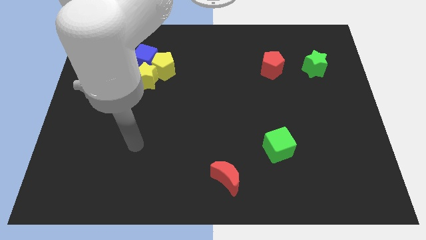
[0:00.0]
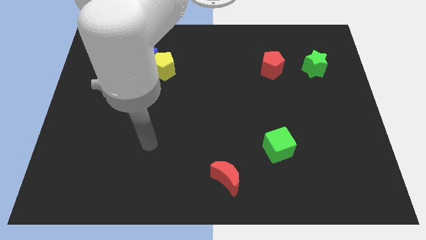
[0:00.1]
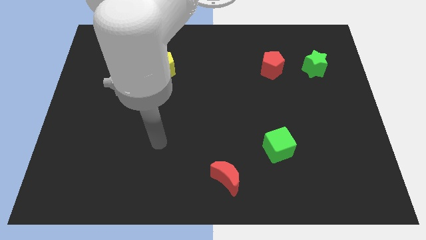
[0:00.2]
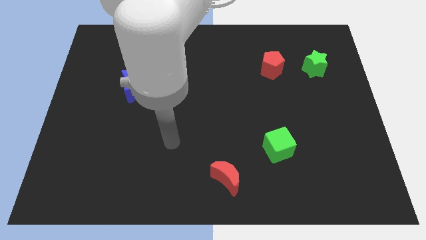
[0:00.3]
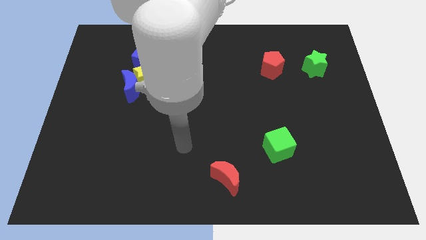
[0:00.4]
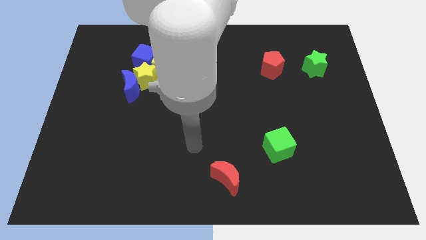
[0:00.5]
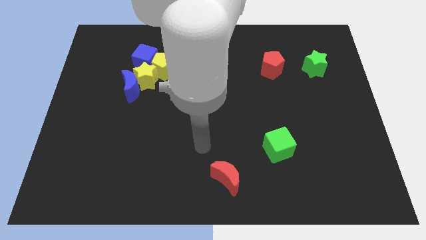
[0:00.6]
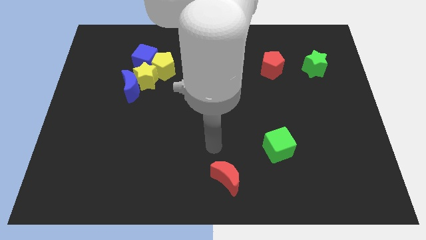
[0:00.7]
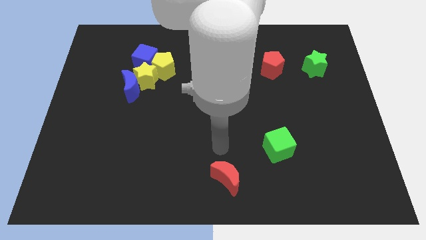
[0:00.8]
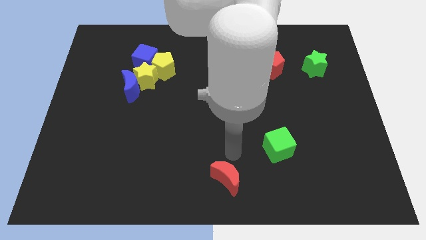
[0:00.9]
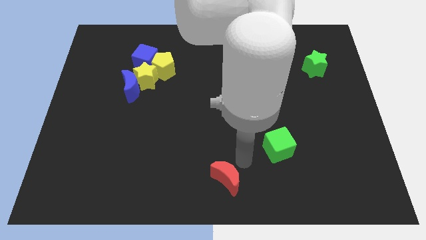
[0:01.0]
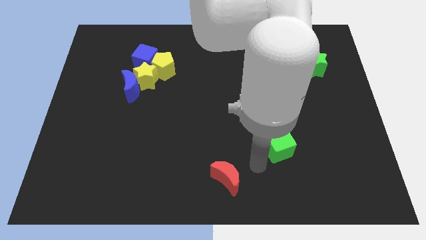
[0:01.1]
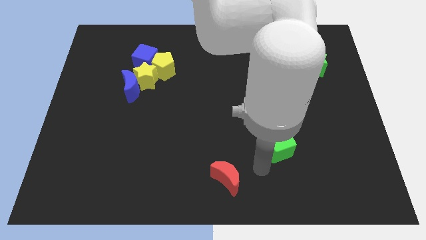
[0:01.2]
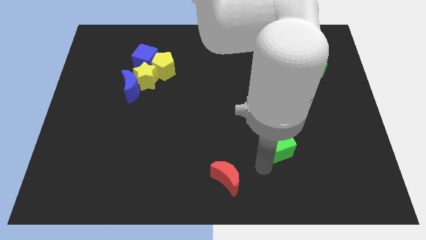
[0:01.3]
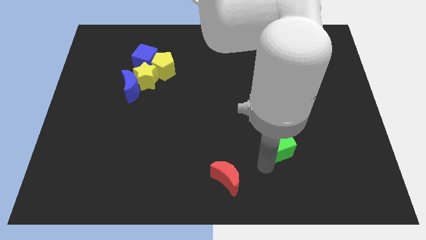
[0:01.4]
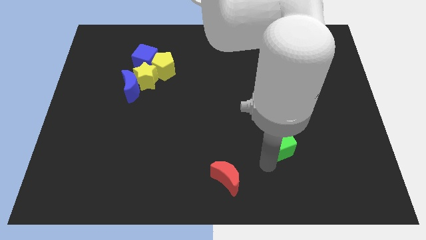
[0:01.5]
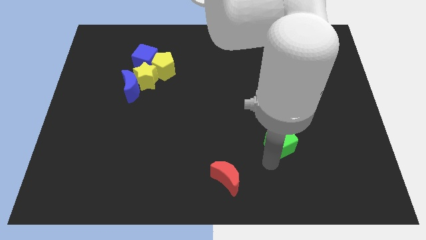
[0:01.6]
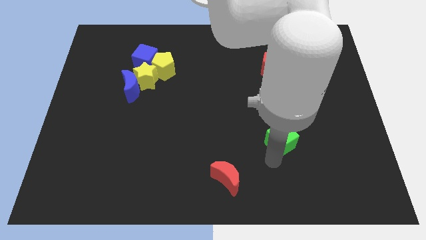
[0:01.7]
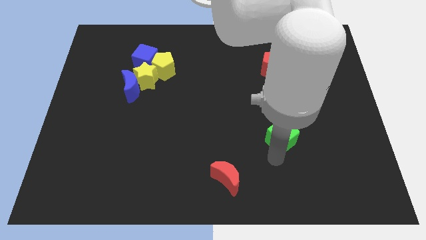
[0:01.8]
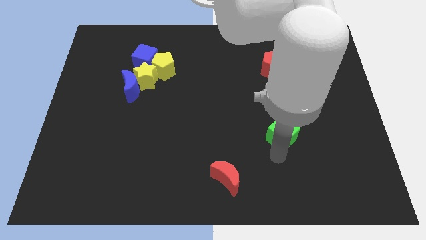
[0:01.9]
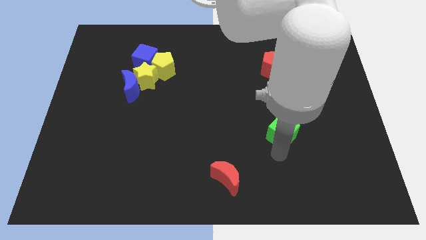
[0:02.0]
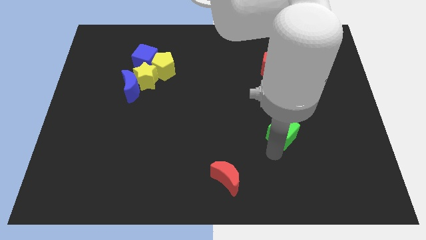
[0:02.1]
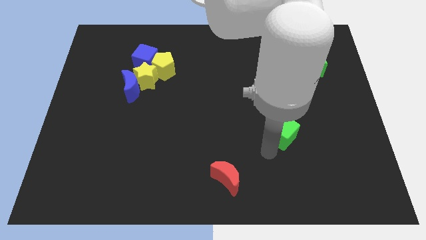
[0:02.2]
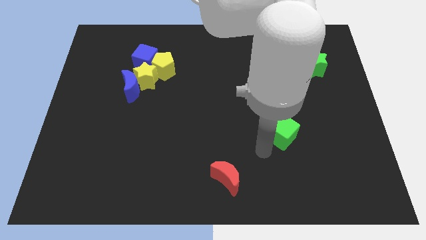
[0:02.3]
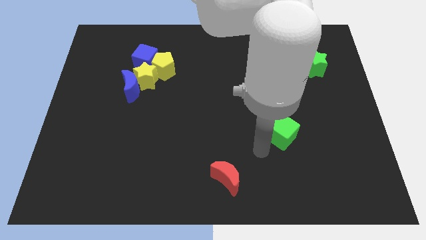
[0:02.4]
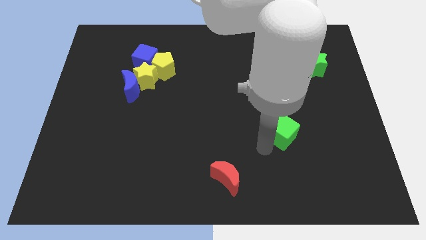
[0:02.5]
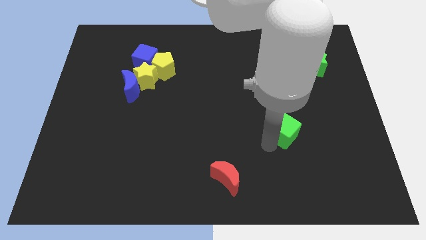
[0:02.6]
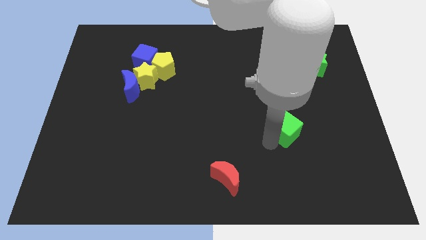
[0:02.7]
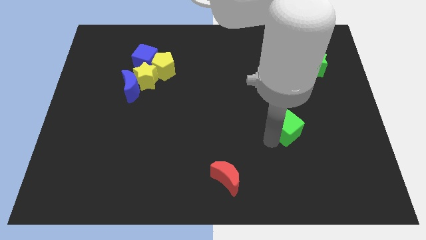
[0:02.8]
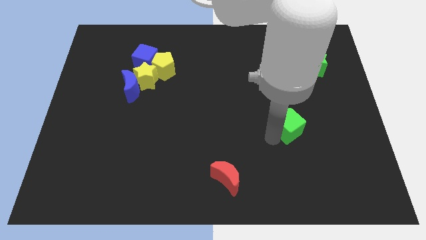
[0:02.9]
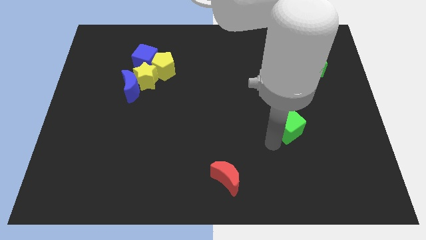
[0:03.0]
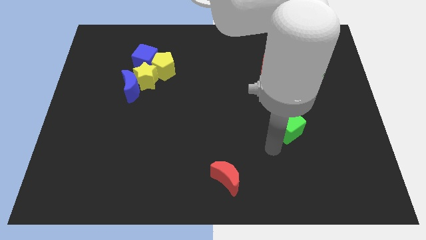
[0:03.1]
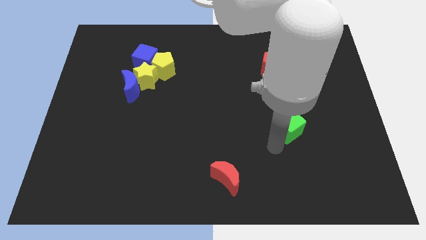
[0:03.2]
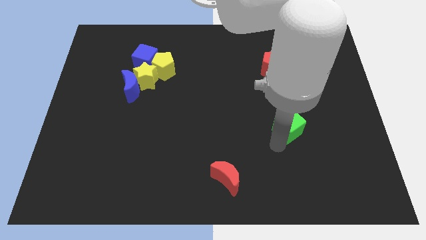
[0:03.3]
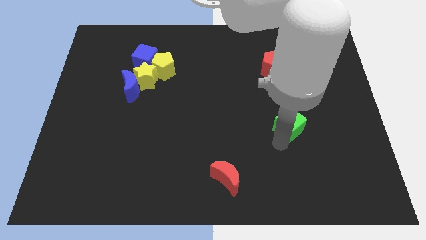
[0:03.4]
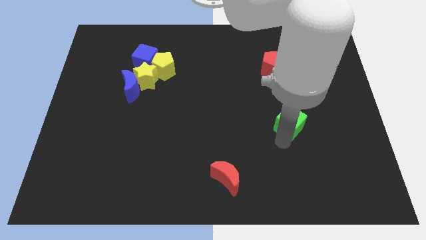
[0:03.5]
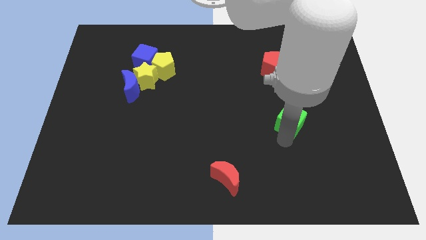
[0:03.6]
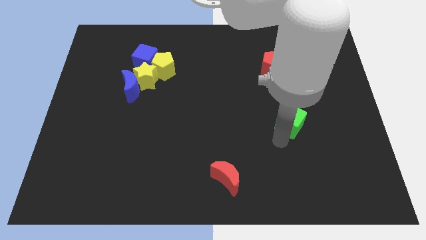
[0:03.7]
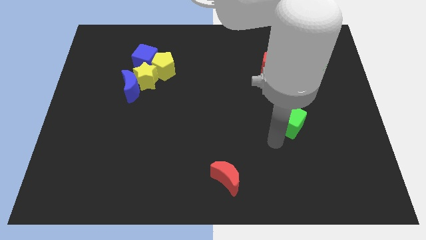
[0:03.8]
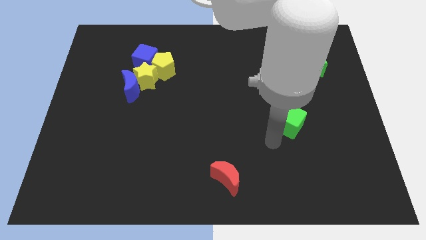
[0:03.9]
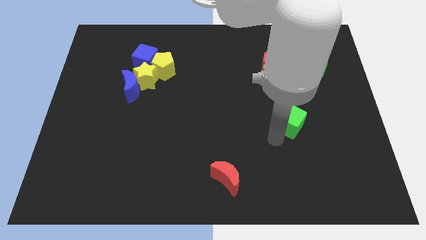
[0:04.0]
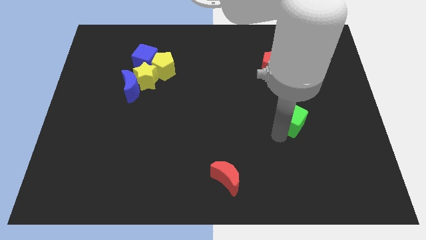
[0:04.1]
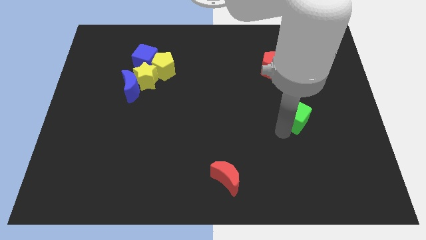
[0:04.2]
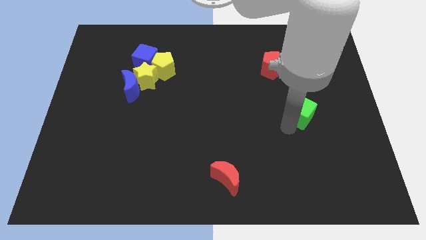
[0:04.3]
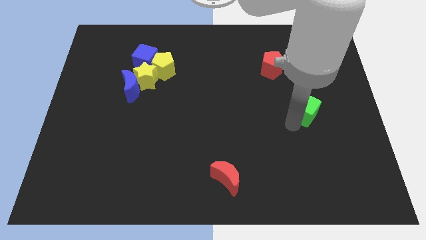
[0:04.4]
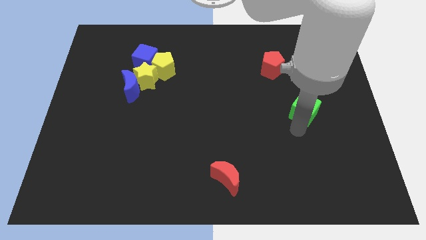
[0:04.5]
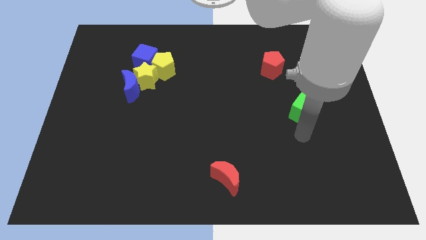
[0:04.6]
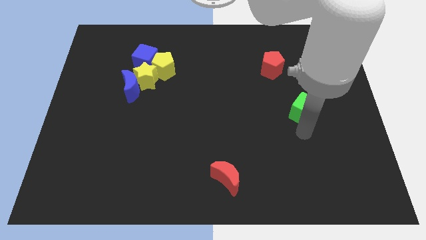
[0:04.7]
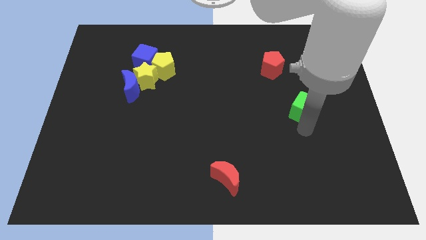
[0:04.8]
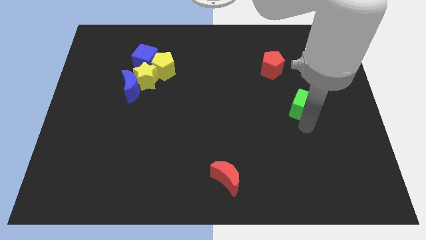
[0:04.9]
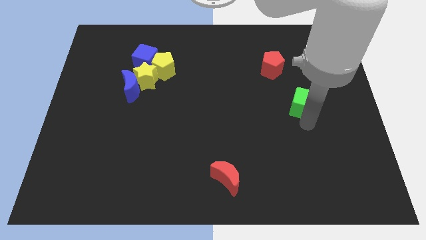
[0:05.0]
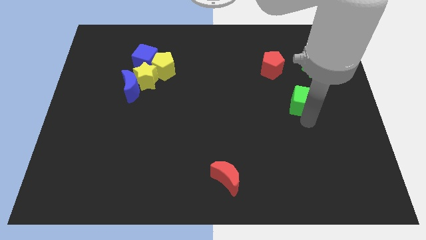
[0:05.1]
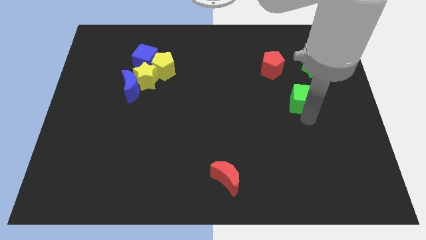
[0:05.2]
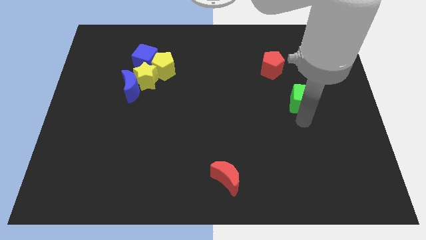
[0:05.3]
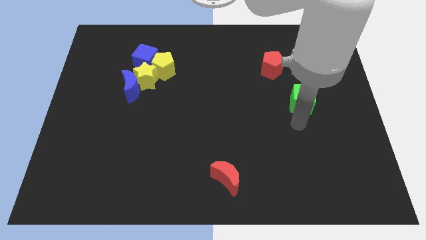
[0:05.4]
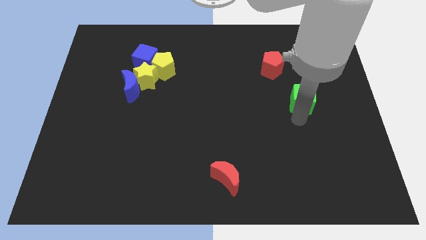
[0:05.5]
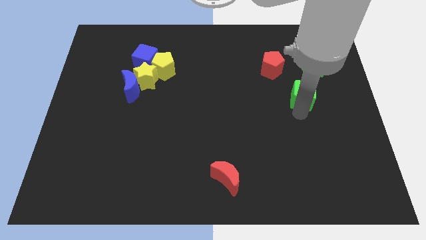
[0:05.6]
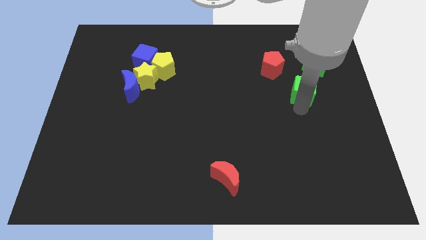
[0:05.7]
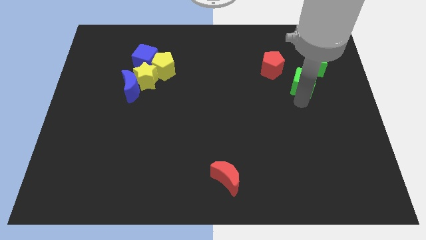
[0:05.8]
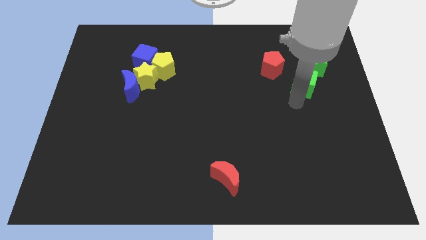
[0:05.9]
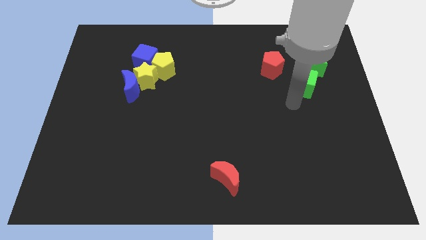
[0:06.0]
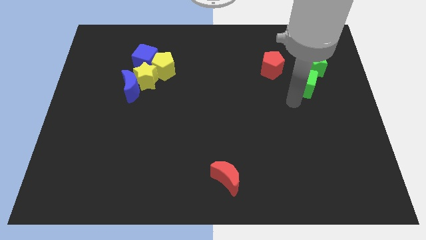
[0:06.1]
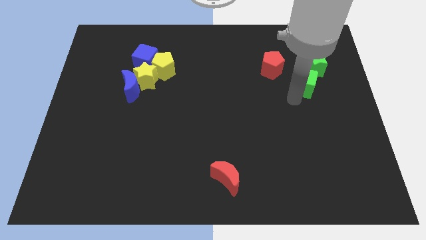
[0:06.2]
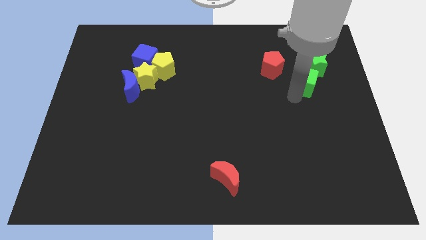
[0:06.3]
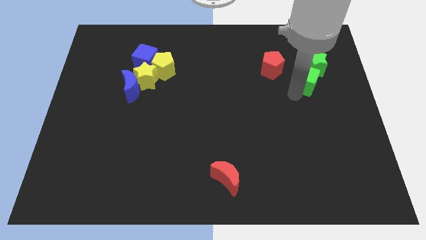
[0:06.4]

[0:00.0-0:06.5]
push the green cube towards the green star

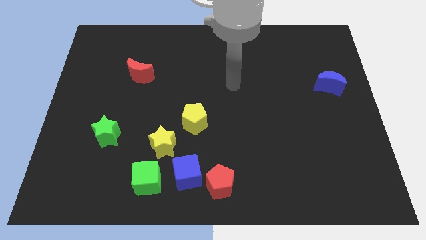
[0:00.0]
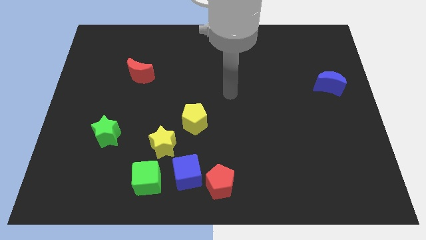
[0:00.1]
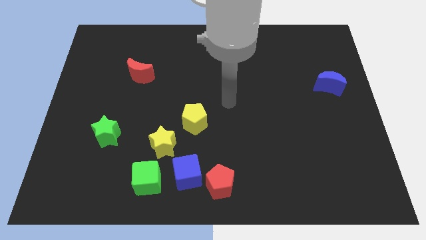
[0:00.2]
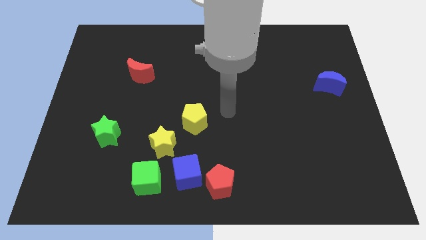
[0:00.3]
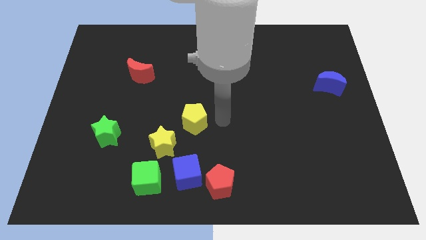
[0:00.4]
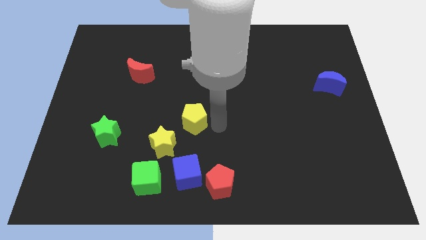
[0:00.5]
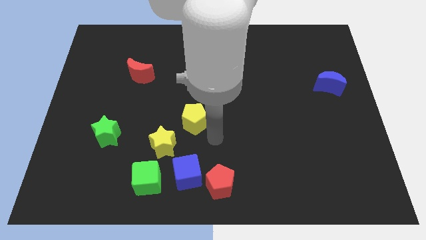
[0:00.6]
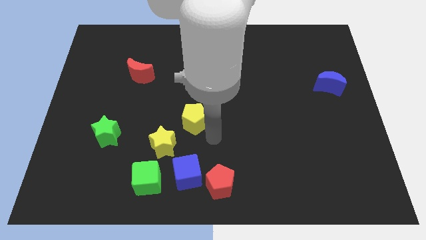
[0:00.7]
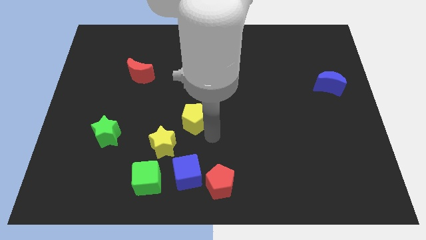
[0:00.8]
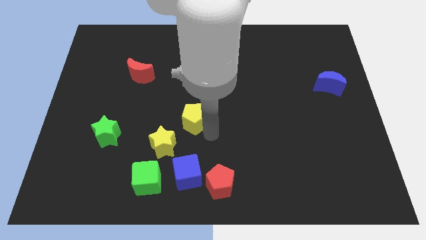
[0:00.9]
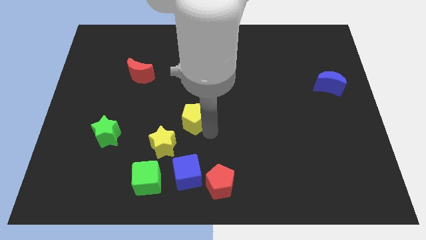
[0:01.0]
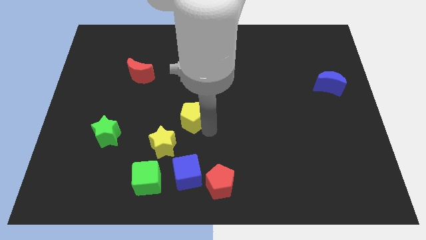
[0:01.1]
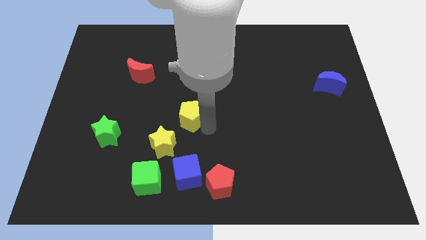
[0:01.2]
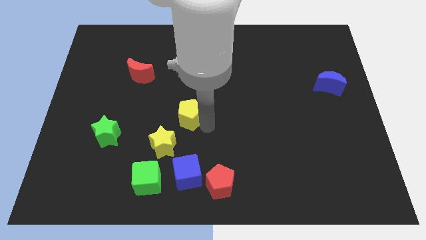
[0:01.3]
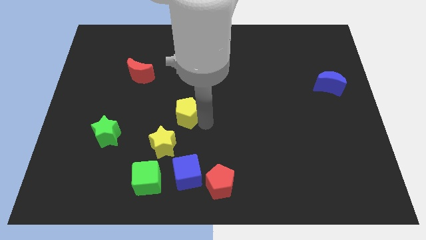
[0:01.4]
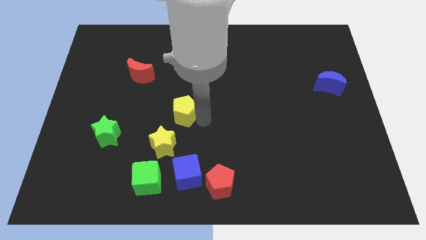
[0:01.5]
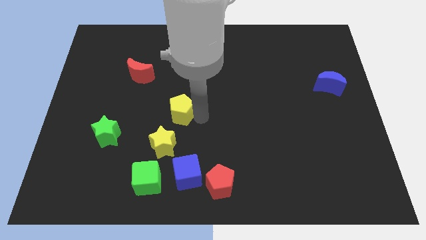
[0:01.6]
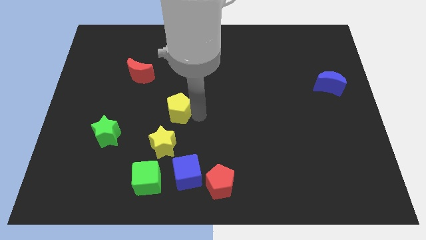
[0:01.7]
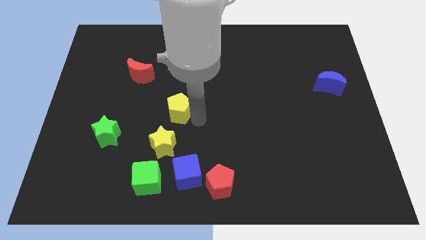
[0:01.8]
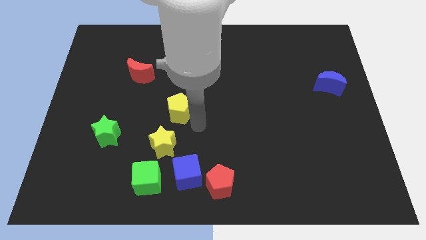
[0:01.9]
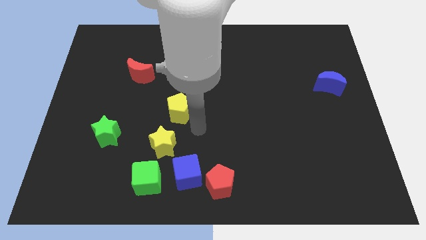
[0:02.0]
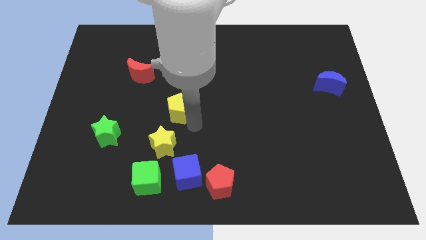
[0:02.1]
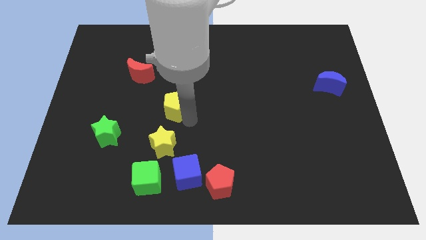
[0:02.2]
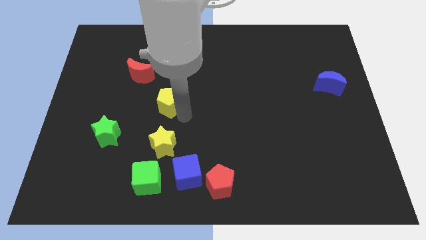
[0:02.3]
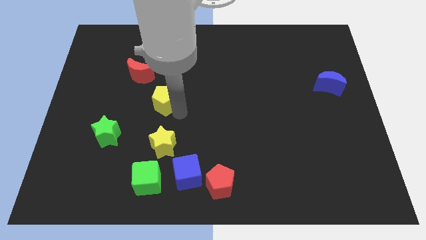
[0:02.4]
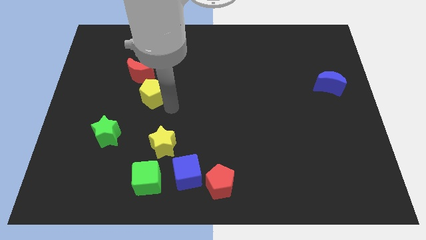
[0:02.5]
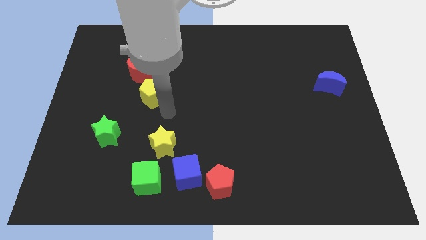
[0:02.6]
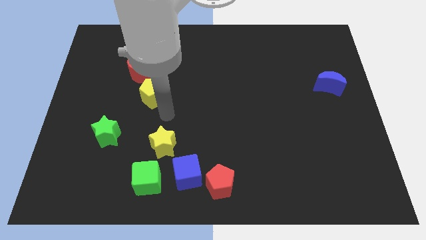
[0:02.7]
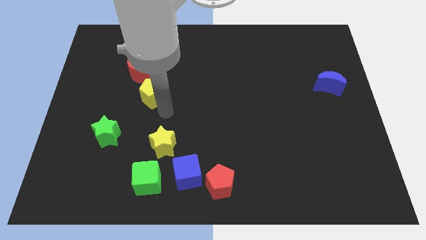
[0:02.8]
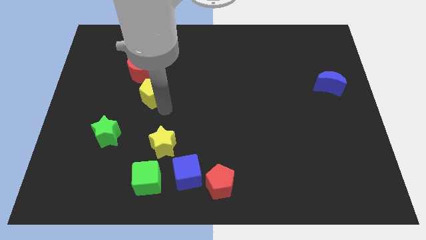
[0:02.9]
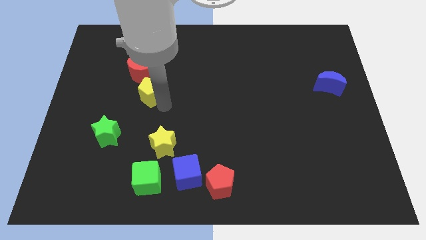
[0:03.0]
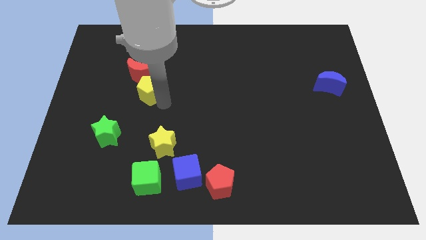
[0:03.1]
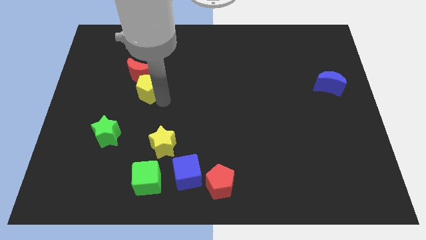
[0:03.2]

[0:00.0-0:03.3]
move the yellow pentagon to the red moon
